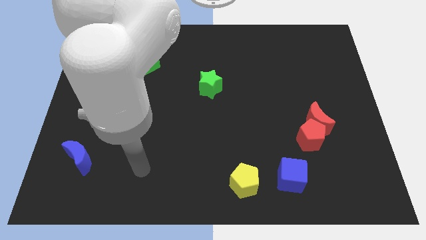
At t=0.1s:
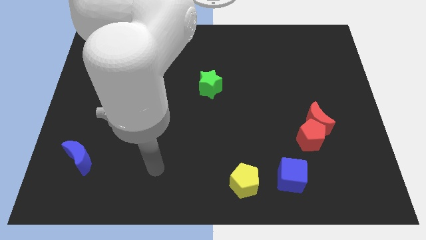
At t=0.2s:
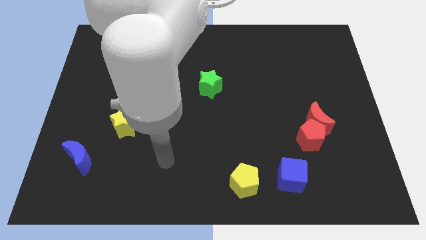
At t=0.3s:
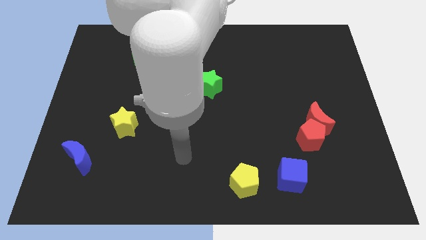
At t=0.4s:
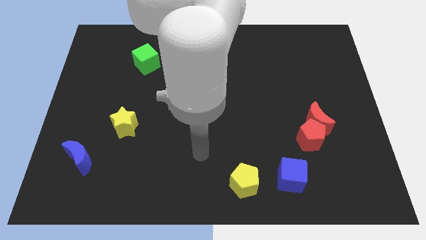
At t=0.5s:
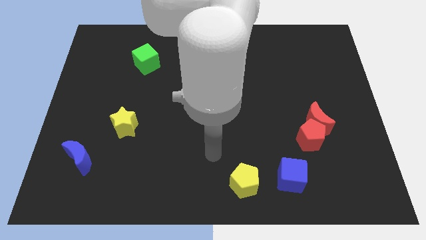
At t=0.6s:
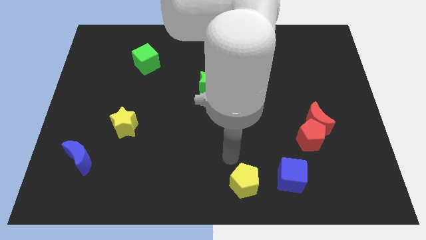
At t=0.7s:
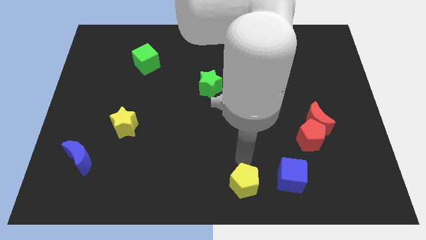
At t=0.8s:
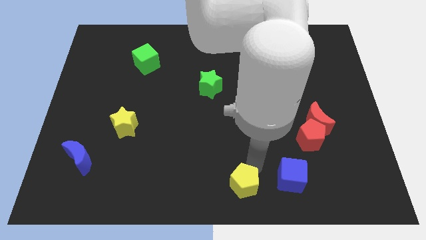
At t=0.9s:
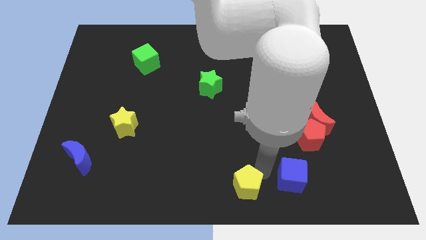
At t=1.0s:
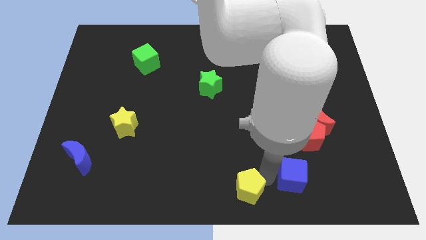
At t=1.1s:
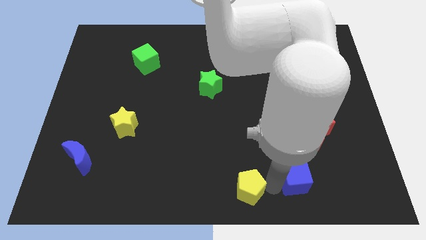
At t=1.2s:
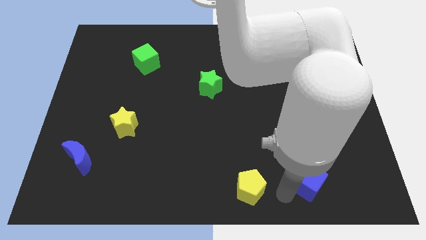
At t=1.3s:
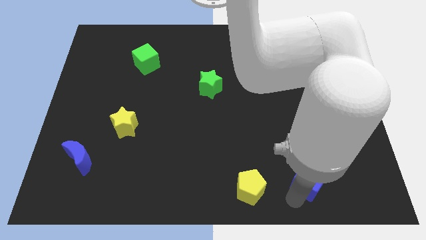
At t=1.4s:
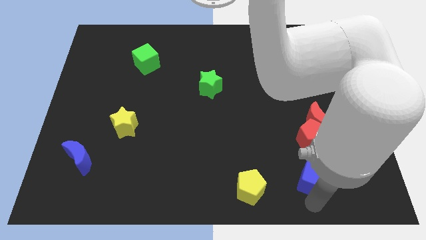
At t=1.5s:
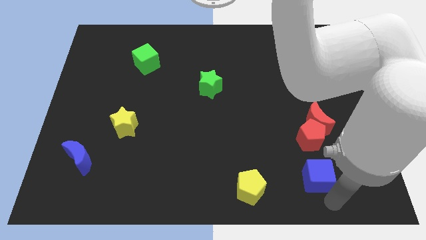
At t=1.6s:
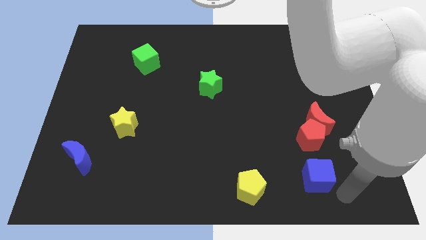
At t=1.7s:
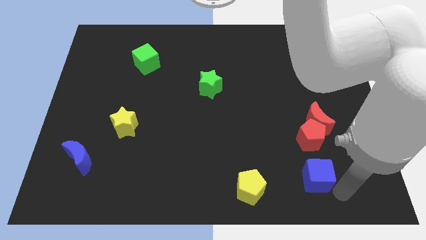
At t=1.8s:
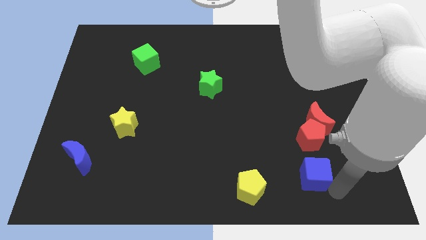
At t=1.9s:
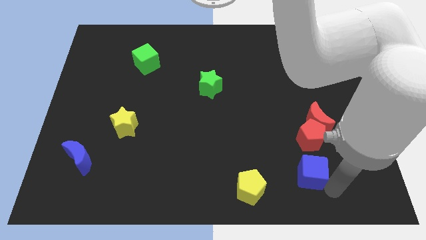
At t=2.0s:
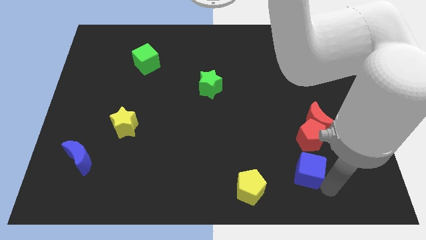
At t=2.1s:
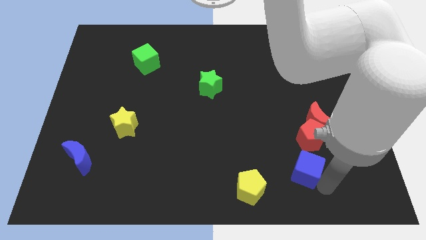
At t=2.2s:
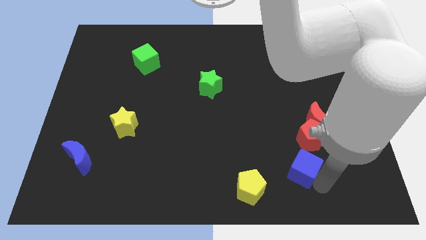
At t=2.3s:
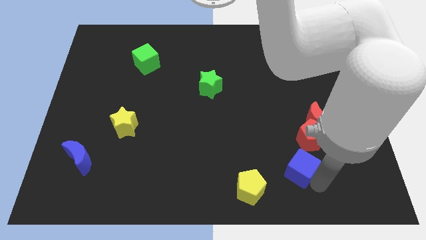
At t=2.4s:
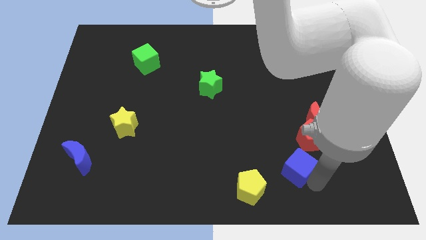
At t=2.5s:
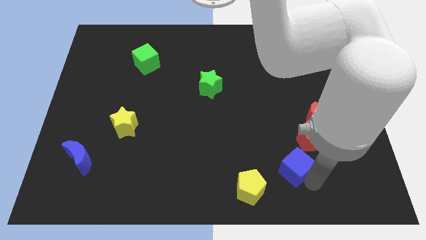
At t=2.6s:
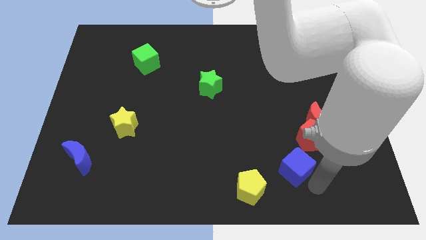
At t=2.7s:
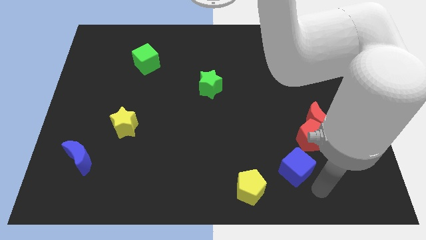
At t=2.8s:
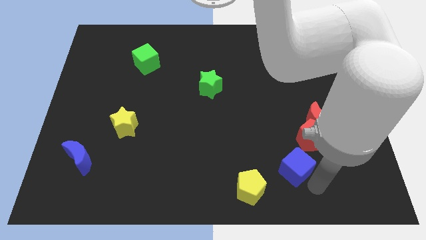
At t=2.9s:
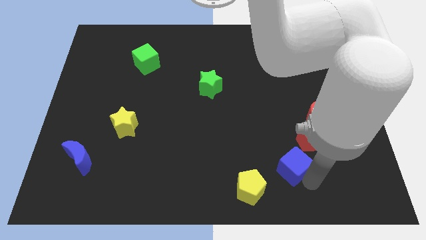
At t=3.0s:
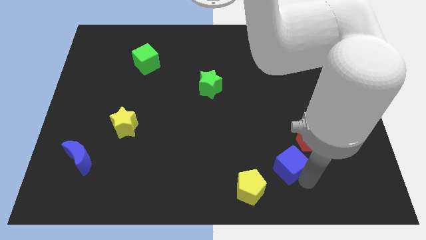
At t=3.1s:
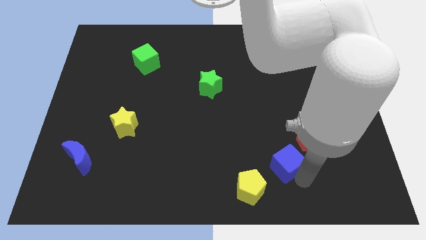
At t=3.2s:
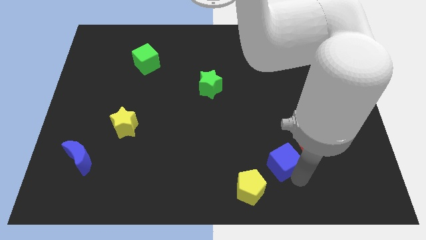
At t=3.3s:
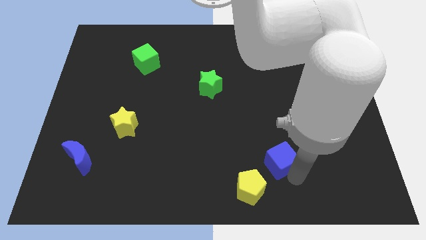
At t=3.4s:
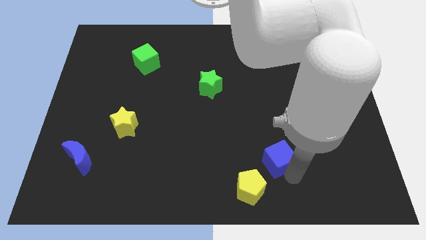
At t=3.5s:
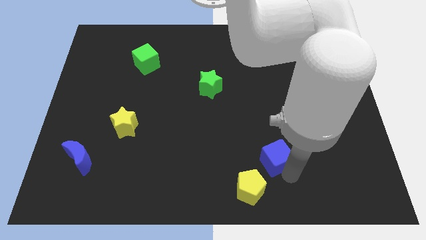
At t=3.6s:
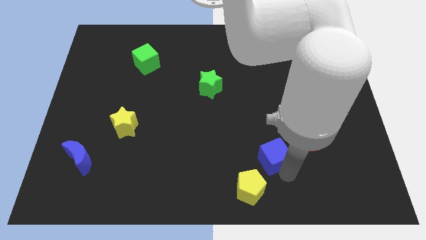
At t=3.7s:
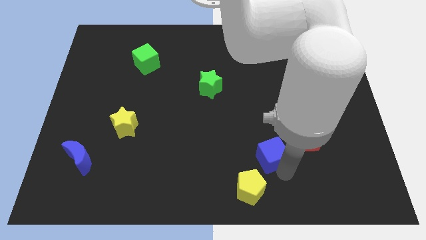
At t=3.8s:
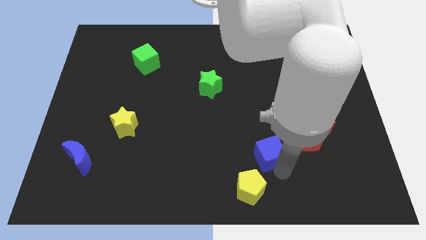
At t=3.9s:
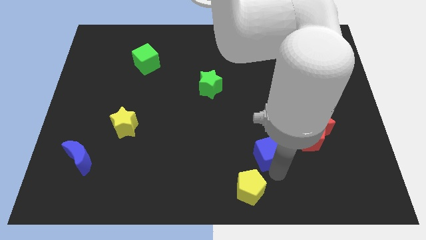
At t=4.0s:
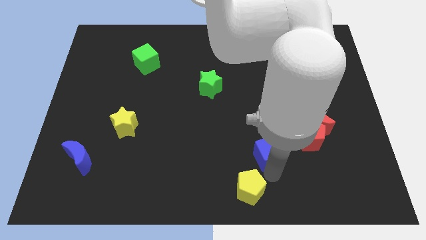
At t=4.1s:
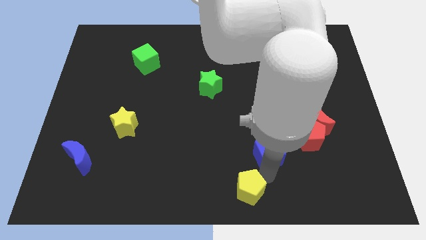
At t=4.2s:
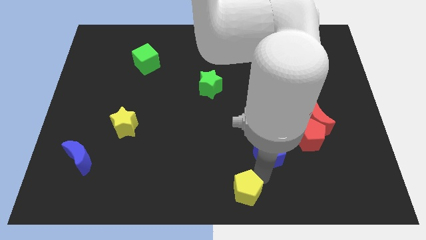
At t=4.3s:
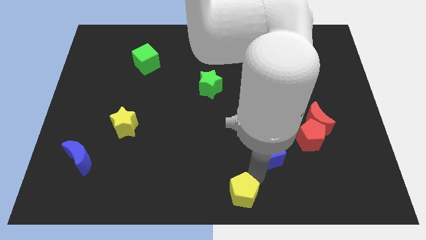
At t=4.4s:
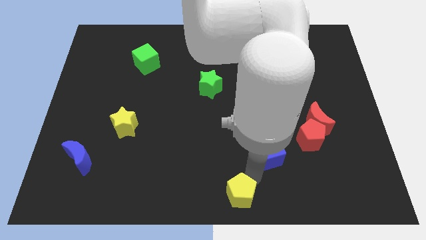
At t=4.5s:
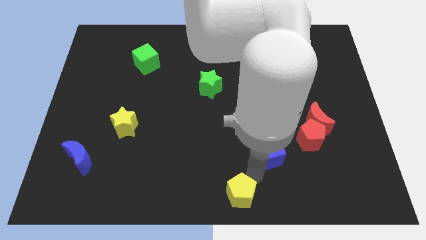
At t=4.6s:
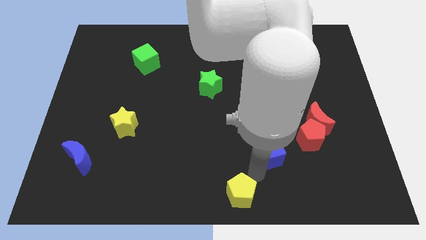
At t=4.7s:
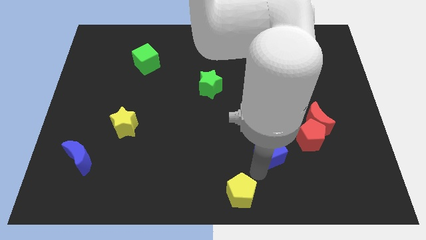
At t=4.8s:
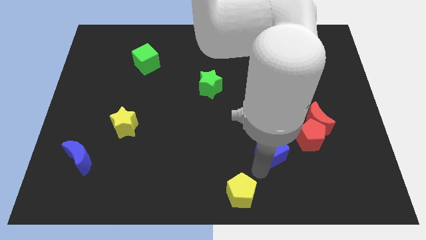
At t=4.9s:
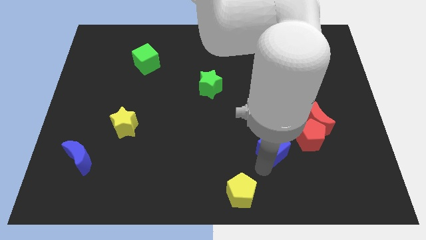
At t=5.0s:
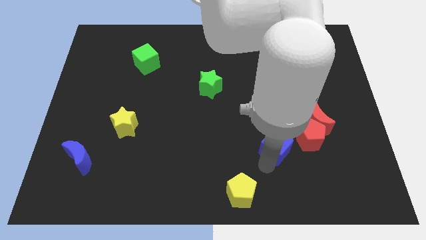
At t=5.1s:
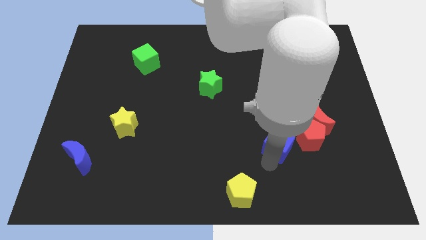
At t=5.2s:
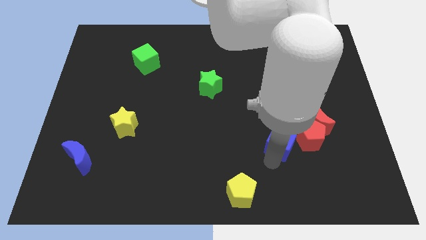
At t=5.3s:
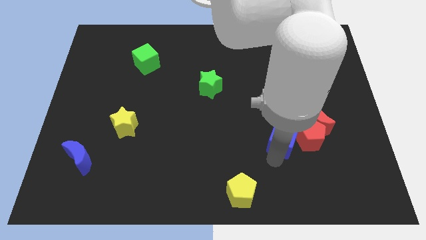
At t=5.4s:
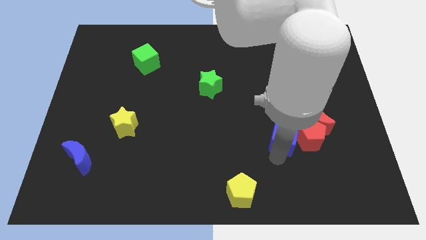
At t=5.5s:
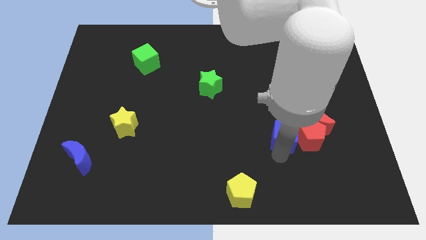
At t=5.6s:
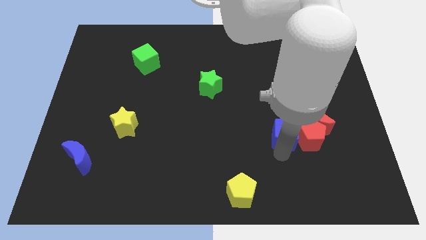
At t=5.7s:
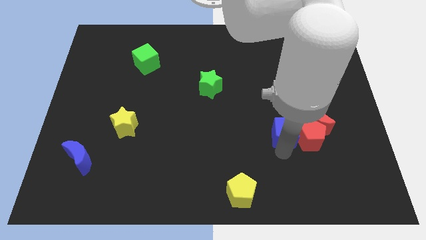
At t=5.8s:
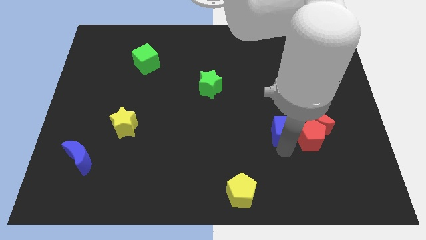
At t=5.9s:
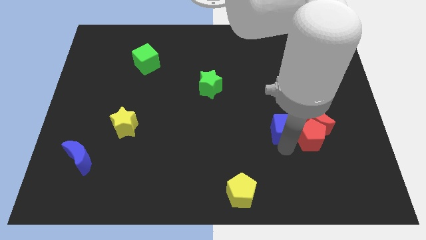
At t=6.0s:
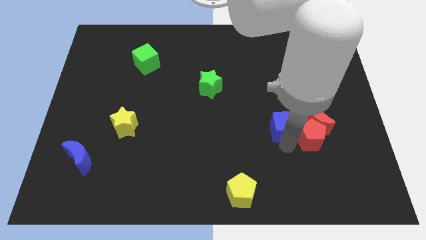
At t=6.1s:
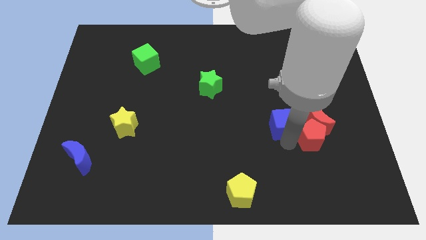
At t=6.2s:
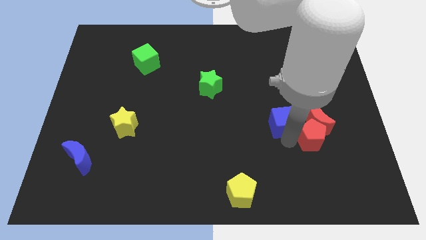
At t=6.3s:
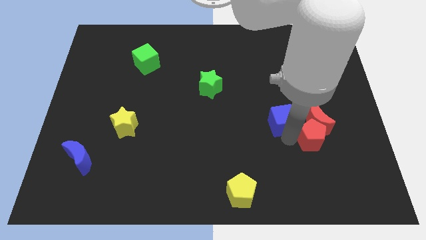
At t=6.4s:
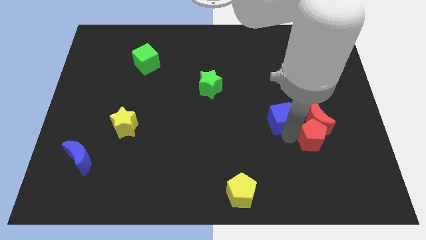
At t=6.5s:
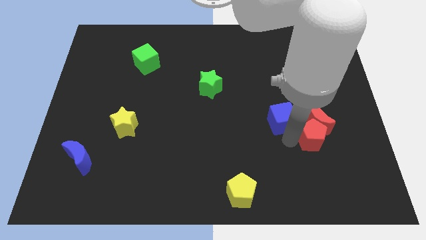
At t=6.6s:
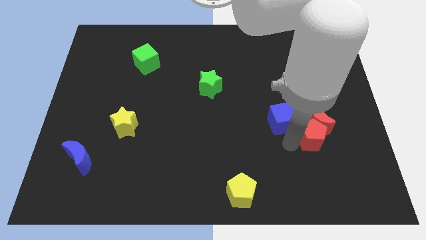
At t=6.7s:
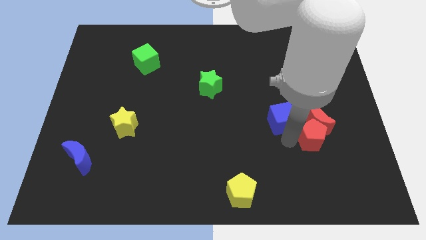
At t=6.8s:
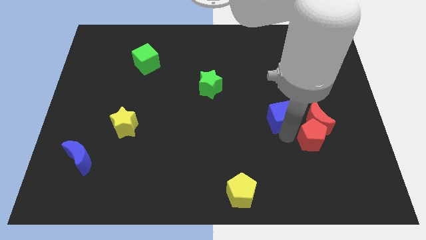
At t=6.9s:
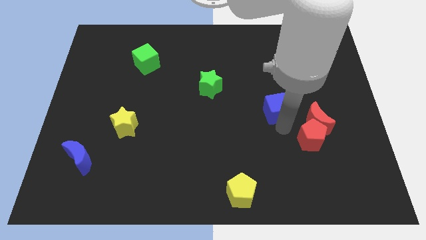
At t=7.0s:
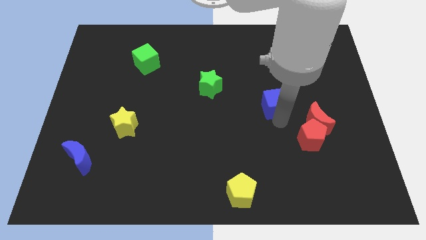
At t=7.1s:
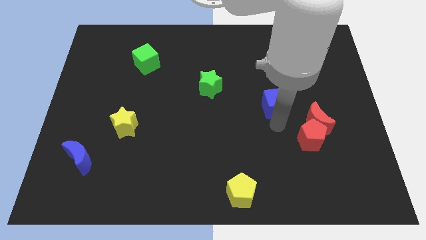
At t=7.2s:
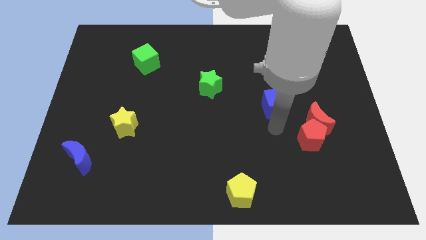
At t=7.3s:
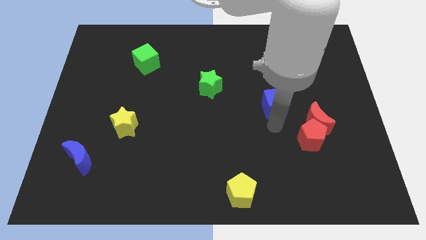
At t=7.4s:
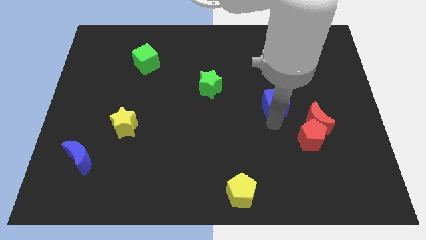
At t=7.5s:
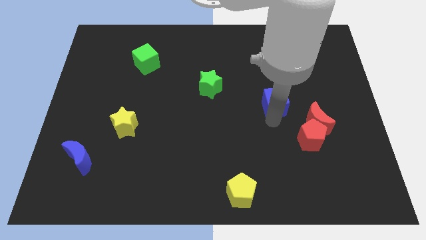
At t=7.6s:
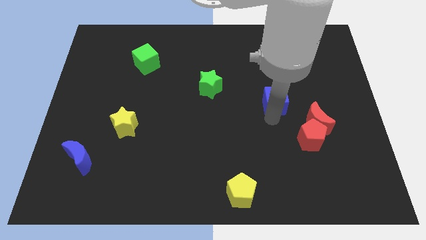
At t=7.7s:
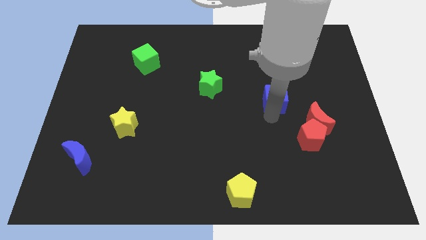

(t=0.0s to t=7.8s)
move the blue cube up

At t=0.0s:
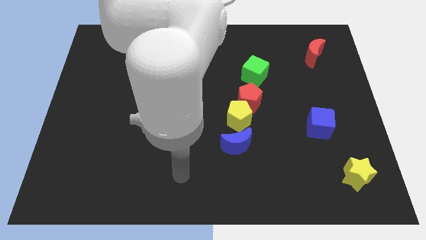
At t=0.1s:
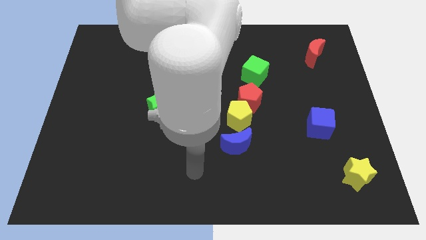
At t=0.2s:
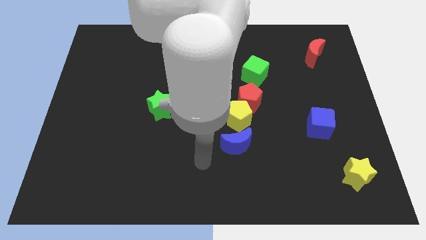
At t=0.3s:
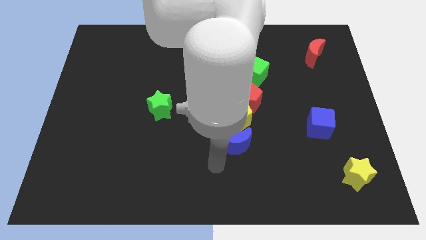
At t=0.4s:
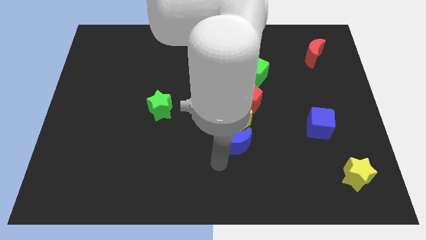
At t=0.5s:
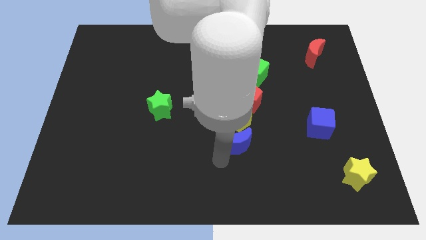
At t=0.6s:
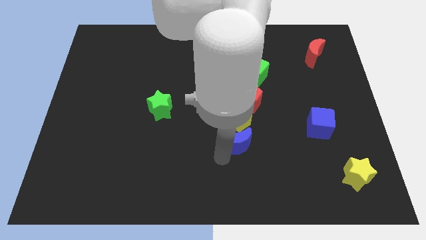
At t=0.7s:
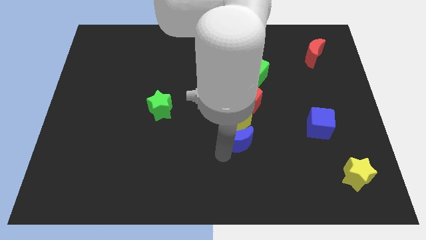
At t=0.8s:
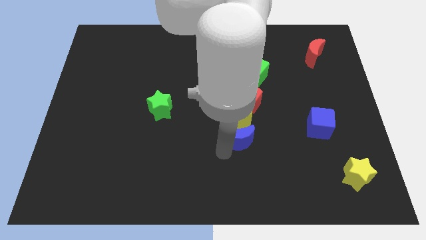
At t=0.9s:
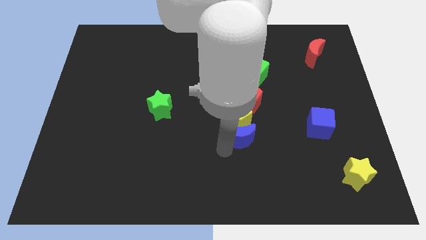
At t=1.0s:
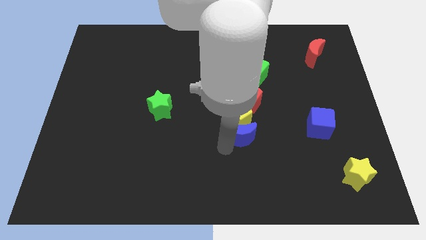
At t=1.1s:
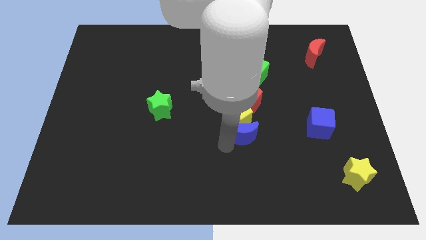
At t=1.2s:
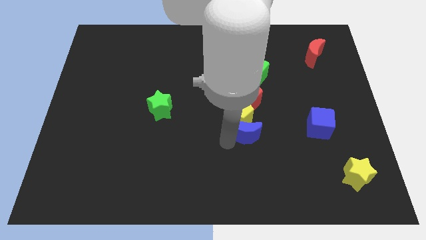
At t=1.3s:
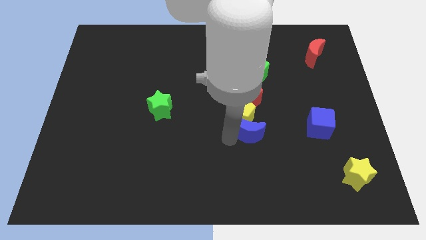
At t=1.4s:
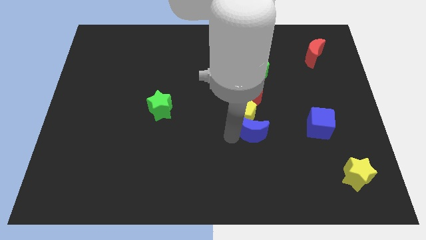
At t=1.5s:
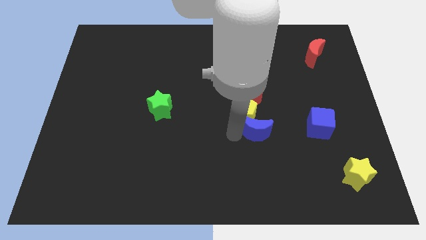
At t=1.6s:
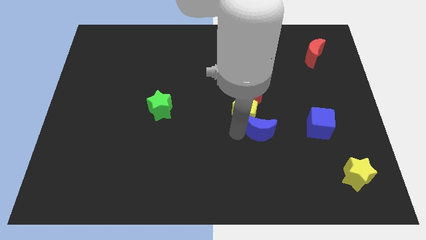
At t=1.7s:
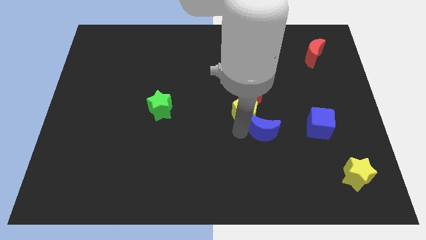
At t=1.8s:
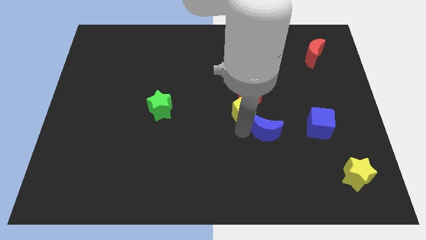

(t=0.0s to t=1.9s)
move the blue moon up and to the right a little bit
